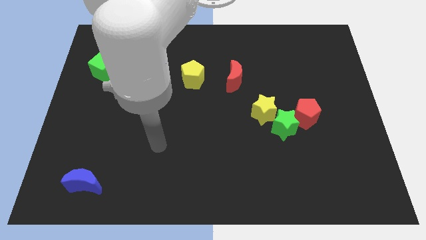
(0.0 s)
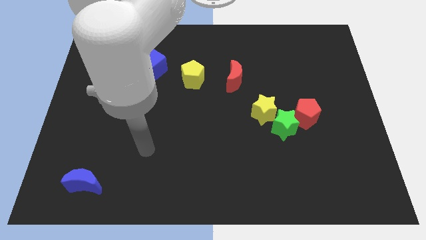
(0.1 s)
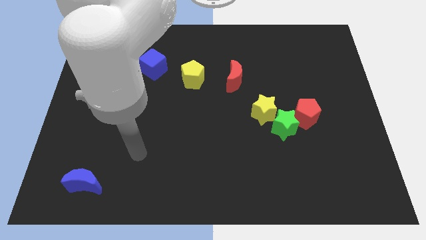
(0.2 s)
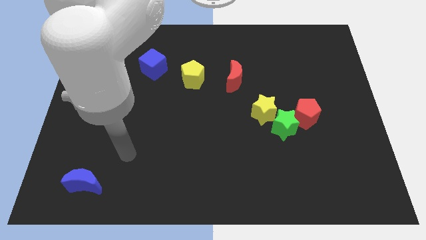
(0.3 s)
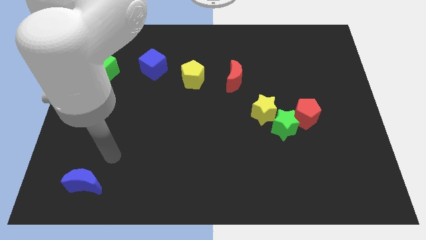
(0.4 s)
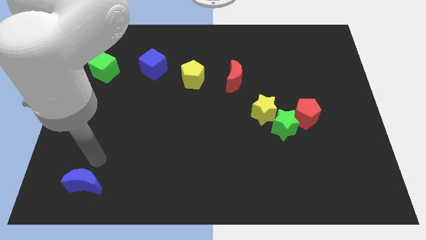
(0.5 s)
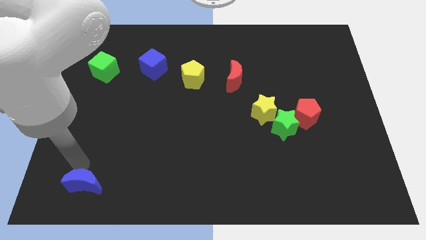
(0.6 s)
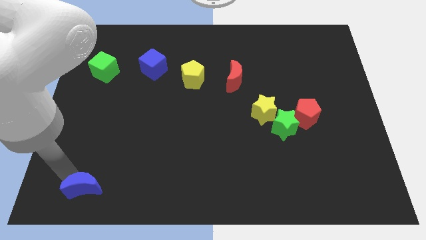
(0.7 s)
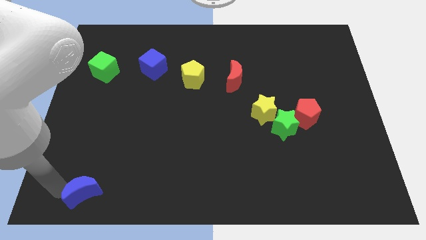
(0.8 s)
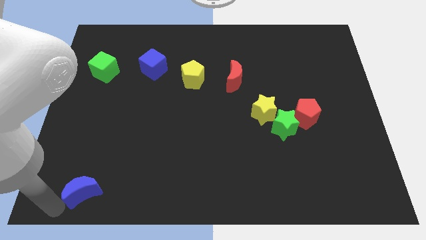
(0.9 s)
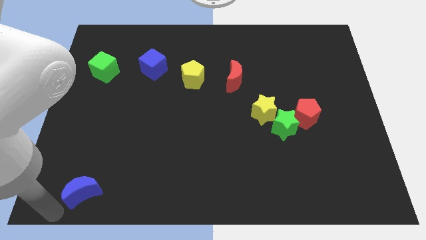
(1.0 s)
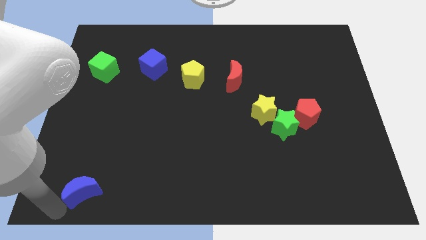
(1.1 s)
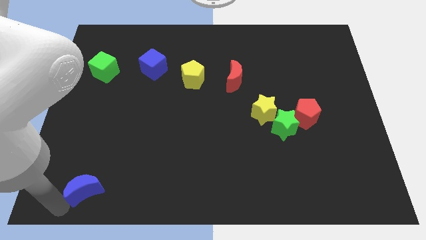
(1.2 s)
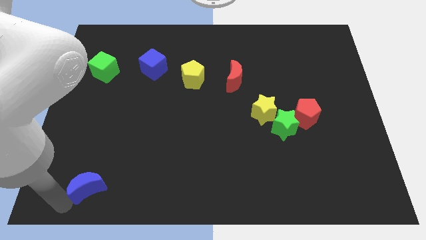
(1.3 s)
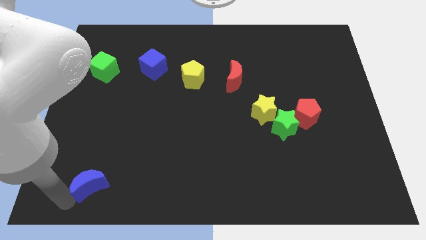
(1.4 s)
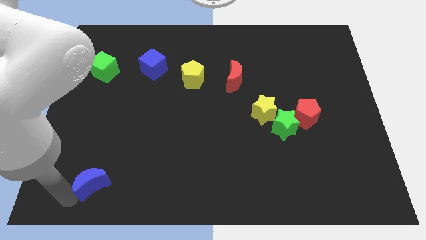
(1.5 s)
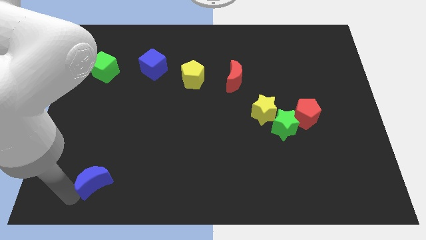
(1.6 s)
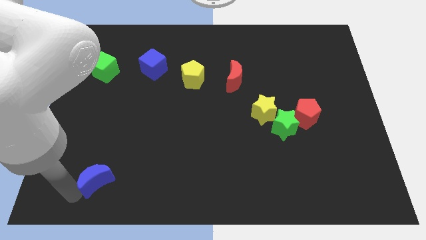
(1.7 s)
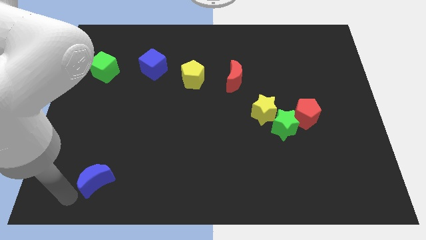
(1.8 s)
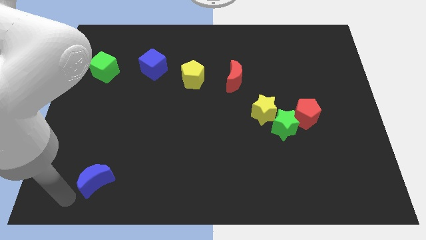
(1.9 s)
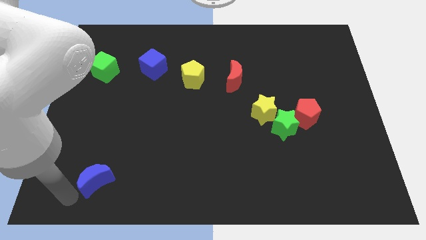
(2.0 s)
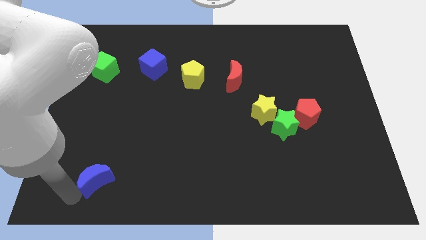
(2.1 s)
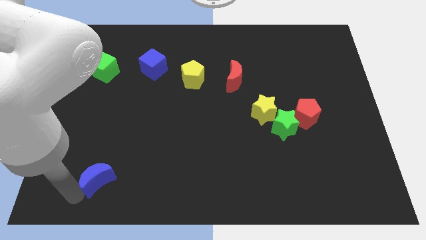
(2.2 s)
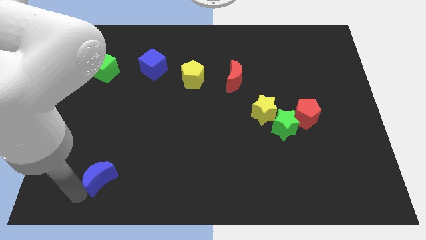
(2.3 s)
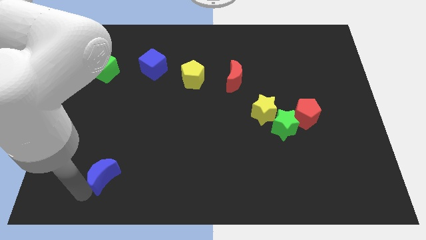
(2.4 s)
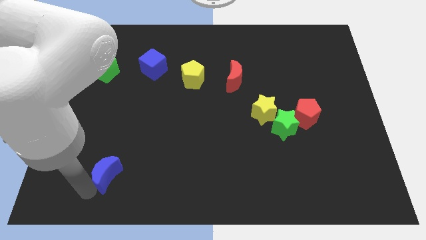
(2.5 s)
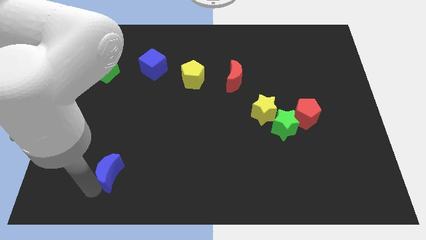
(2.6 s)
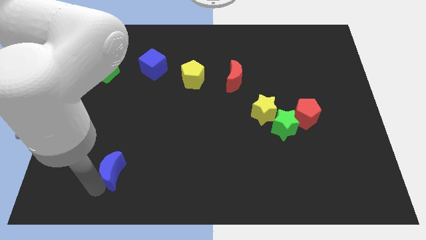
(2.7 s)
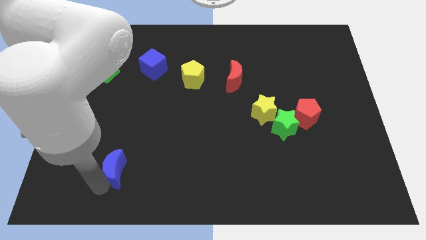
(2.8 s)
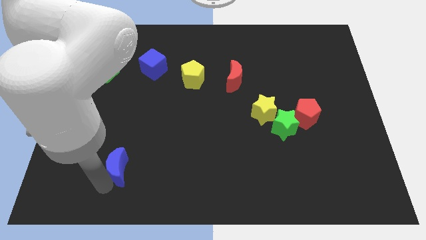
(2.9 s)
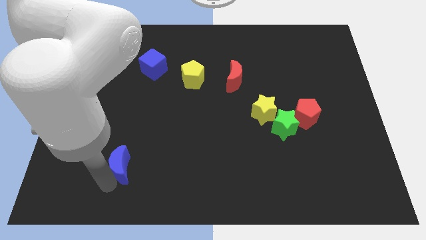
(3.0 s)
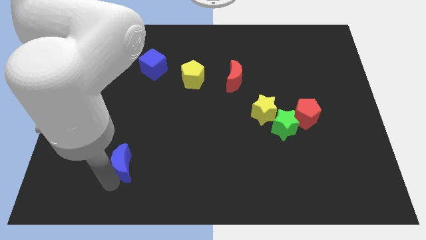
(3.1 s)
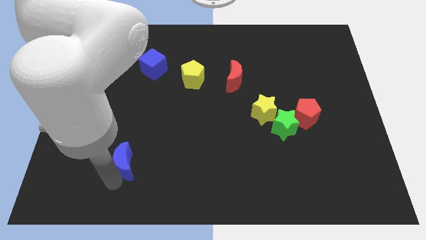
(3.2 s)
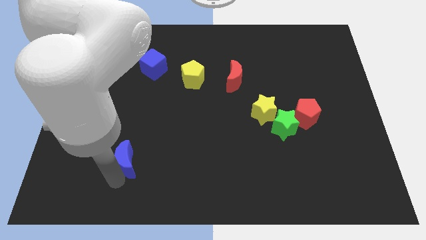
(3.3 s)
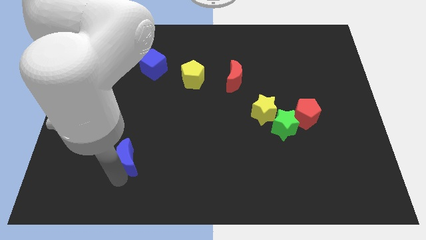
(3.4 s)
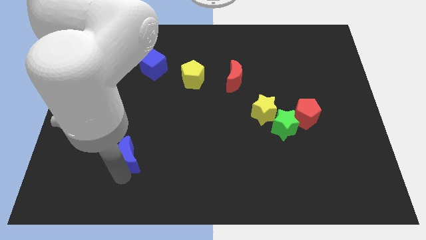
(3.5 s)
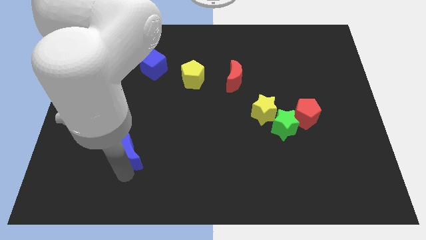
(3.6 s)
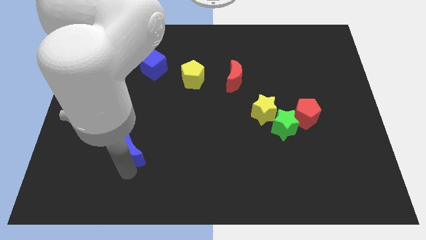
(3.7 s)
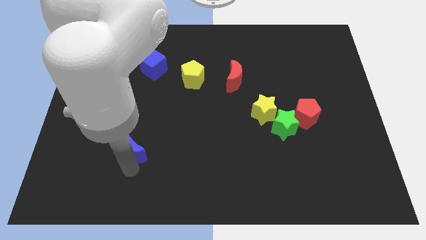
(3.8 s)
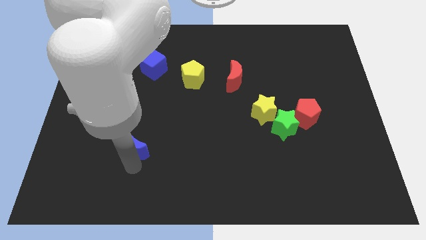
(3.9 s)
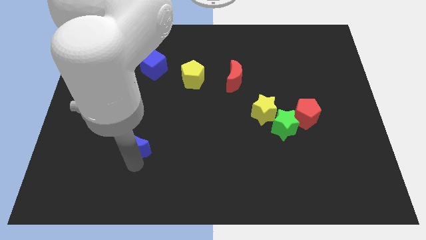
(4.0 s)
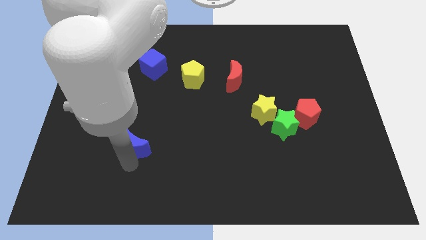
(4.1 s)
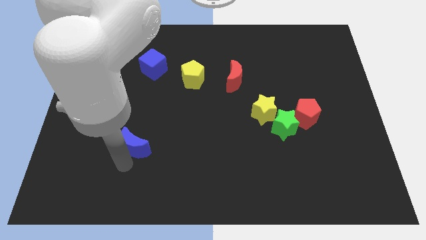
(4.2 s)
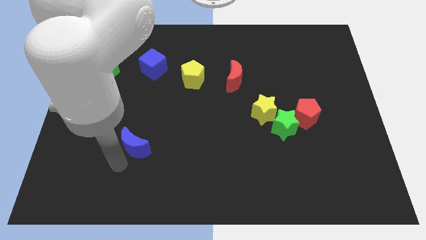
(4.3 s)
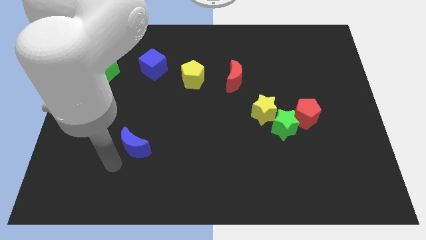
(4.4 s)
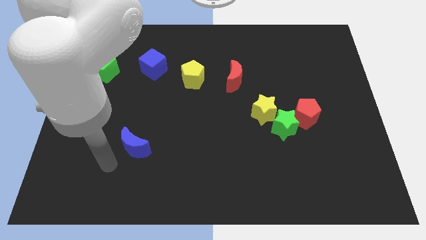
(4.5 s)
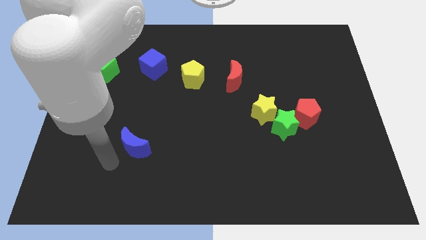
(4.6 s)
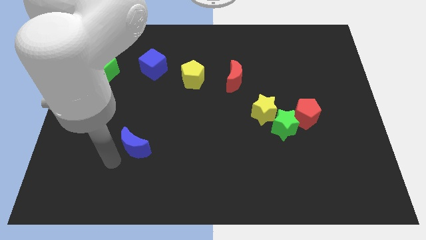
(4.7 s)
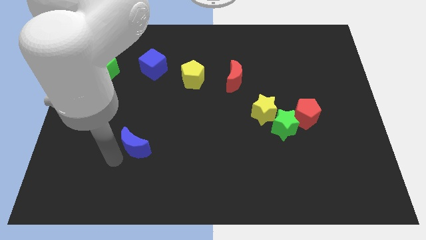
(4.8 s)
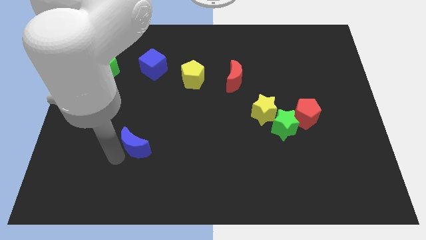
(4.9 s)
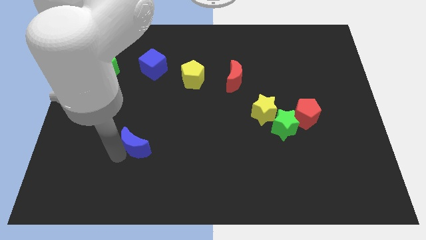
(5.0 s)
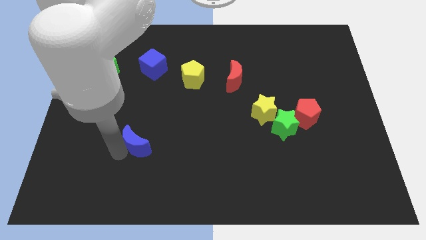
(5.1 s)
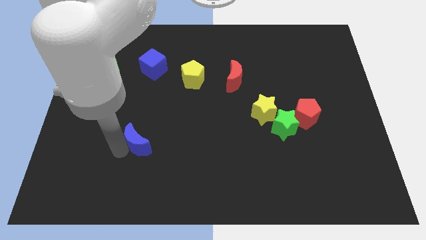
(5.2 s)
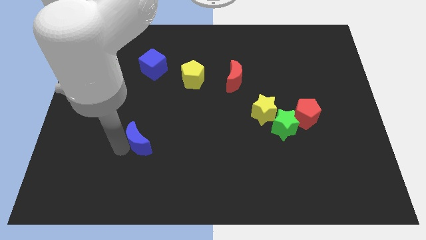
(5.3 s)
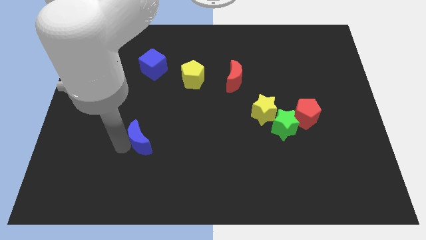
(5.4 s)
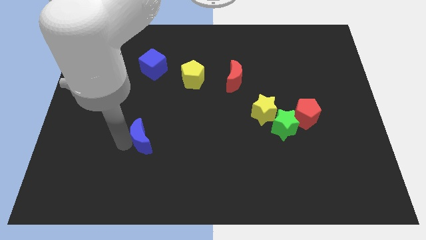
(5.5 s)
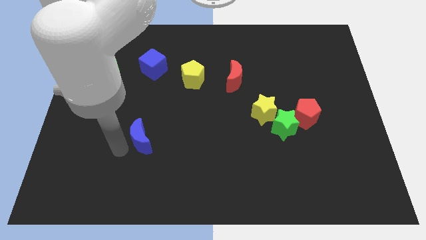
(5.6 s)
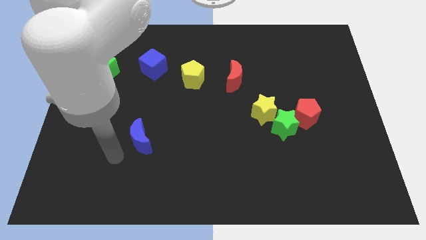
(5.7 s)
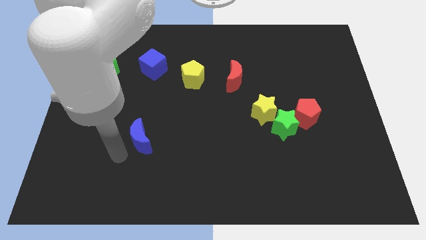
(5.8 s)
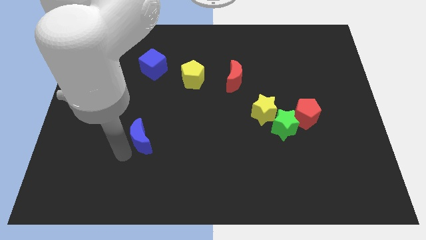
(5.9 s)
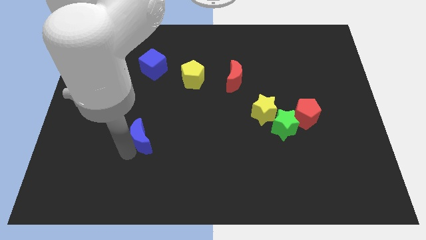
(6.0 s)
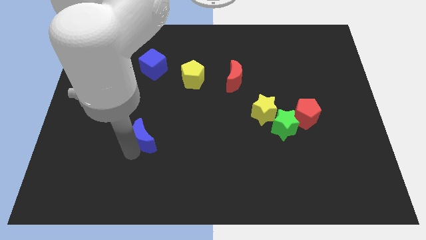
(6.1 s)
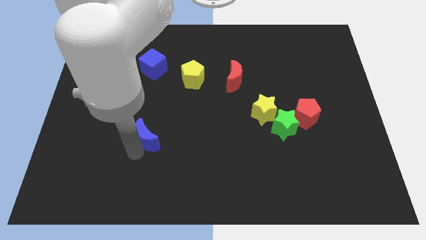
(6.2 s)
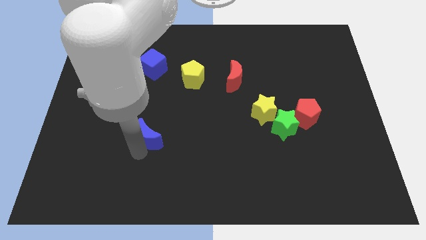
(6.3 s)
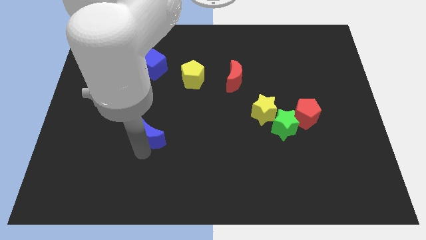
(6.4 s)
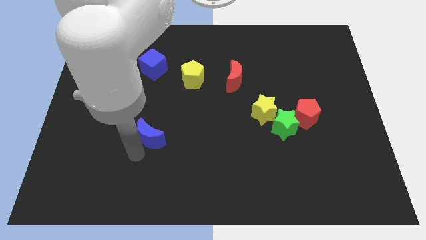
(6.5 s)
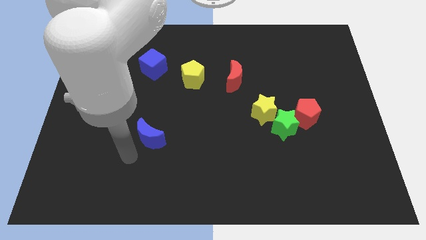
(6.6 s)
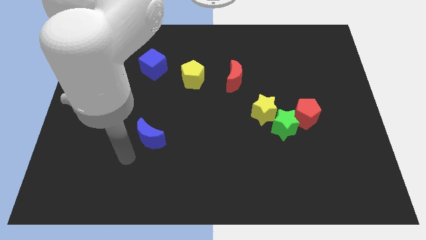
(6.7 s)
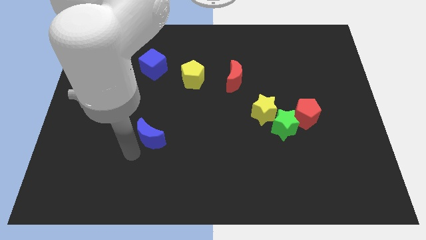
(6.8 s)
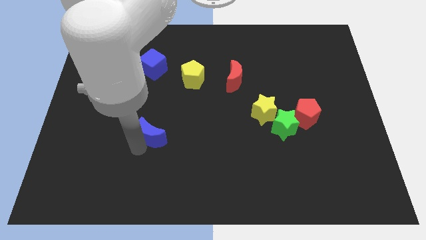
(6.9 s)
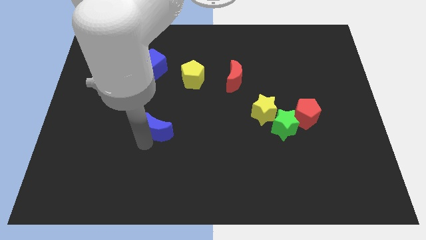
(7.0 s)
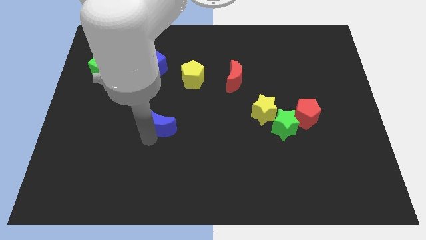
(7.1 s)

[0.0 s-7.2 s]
move the blue moon up and to the right diagonally

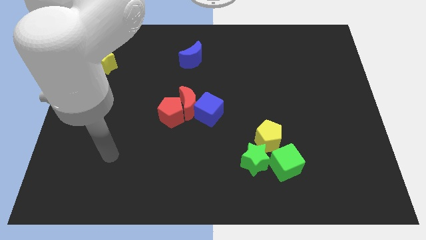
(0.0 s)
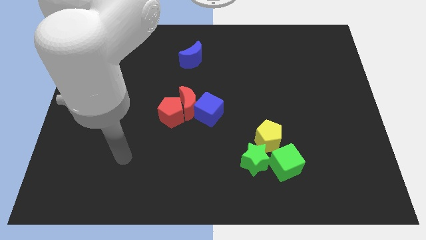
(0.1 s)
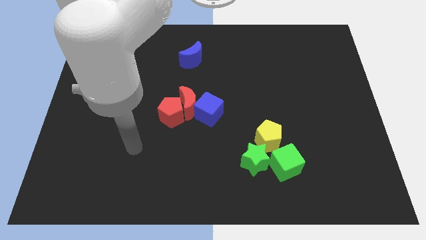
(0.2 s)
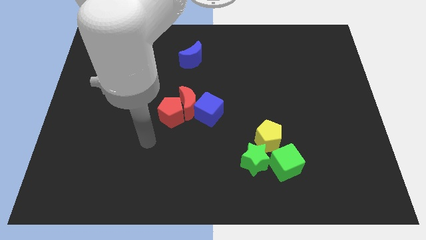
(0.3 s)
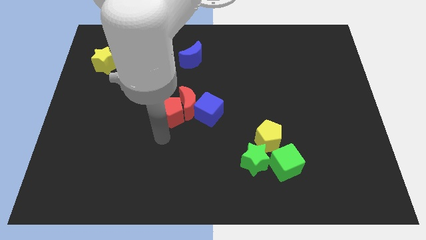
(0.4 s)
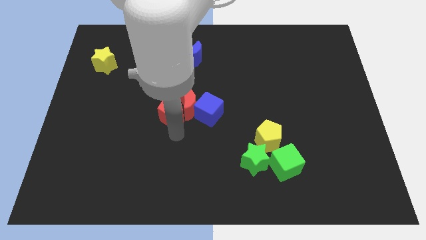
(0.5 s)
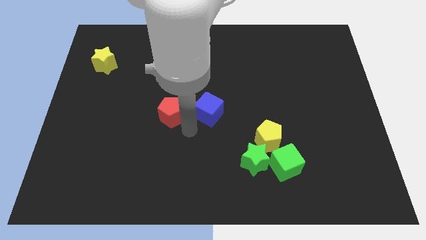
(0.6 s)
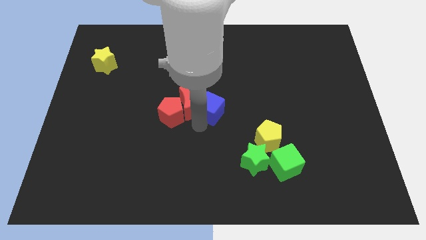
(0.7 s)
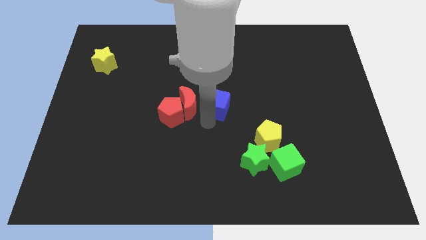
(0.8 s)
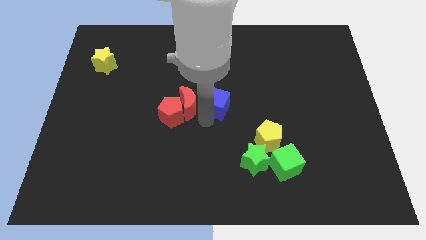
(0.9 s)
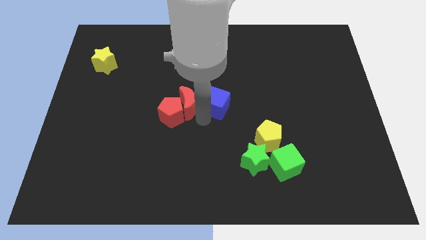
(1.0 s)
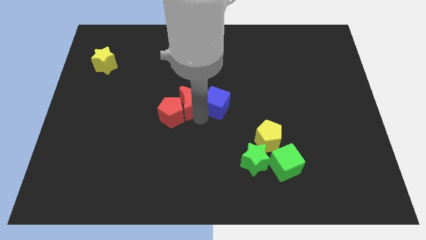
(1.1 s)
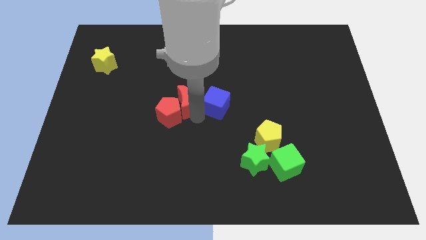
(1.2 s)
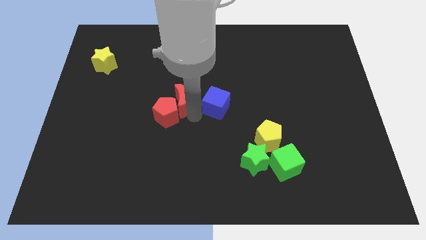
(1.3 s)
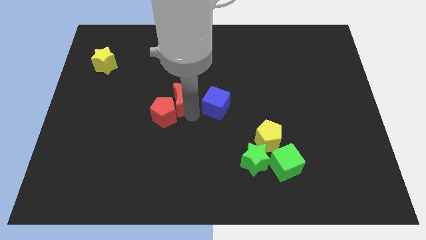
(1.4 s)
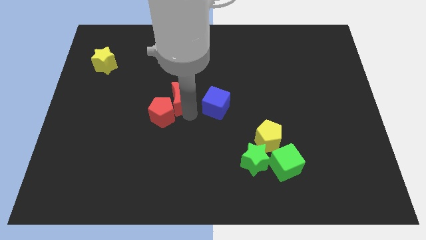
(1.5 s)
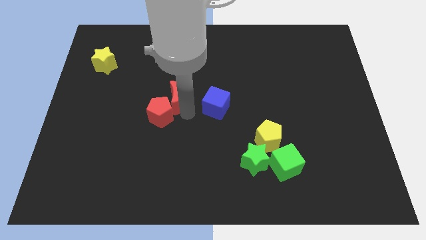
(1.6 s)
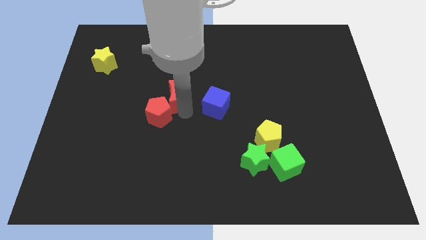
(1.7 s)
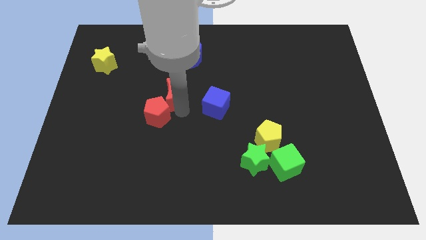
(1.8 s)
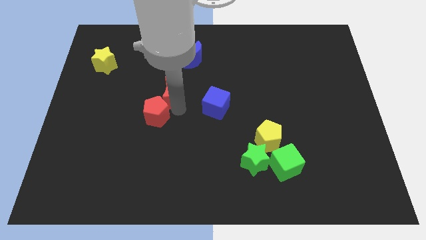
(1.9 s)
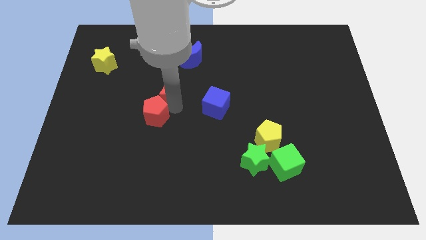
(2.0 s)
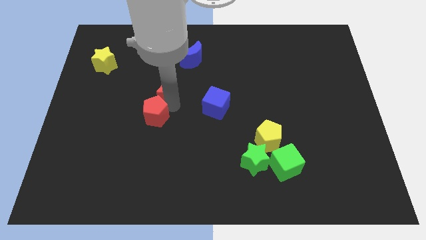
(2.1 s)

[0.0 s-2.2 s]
slightly slide the red moon diagonally up and to the left
